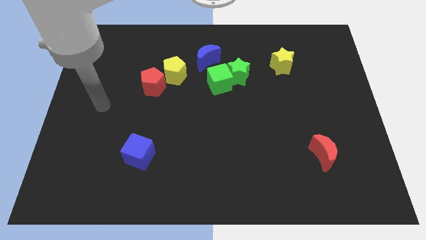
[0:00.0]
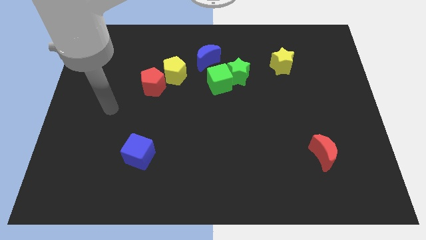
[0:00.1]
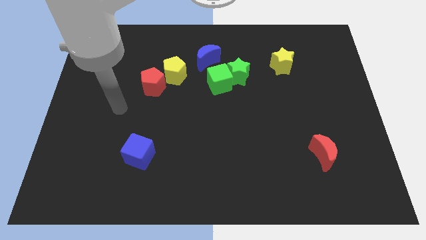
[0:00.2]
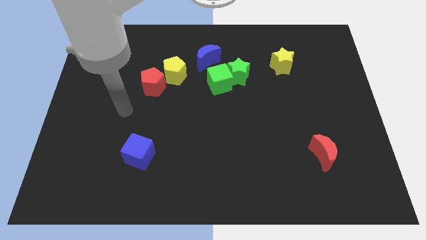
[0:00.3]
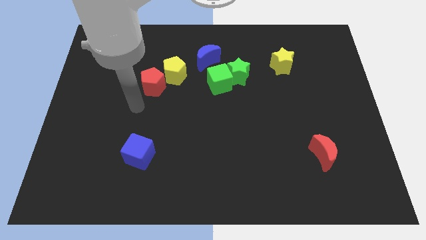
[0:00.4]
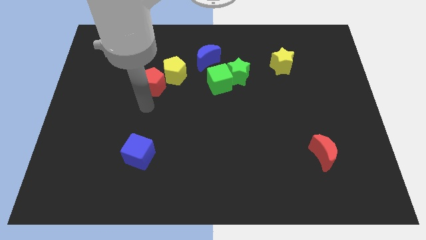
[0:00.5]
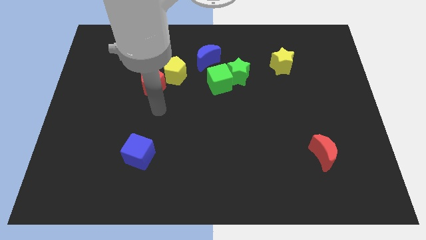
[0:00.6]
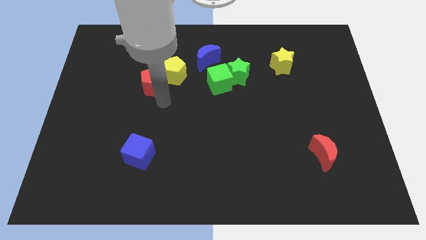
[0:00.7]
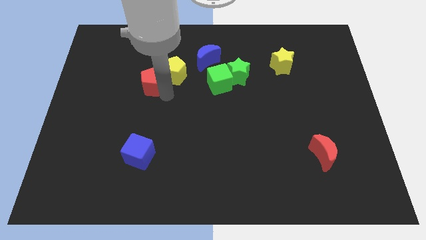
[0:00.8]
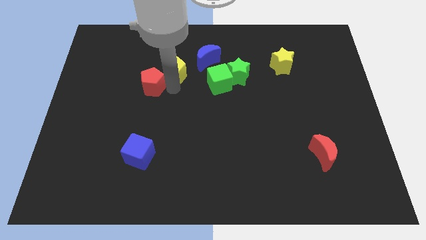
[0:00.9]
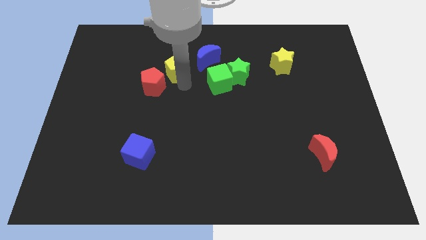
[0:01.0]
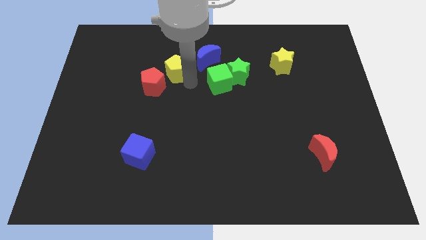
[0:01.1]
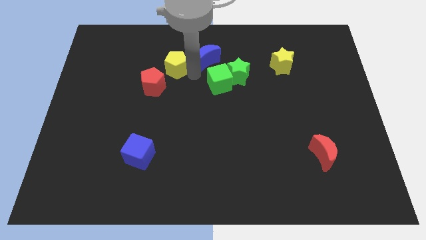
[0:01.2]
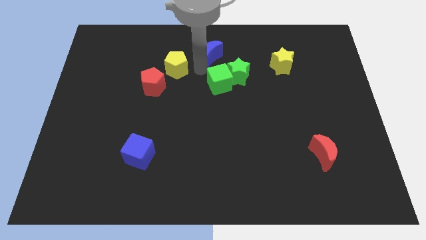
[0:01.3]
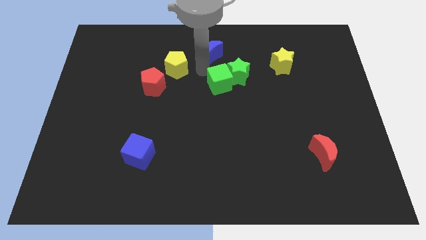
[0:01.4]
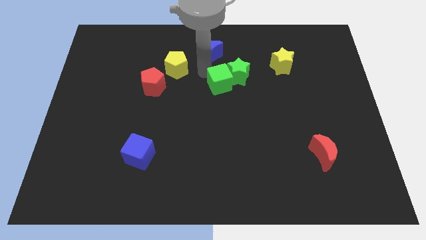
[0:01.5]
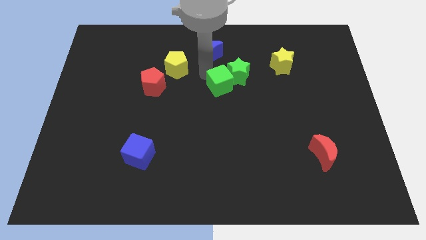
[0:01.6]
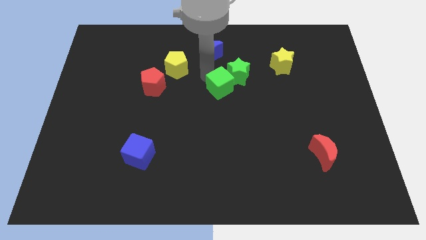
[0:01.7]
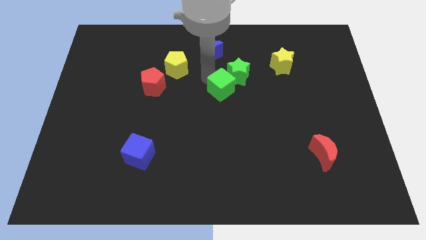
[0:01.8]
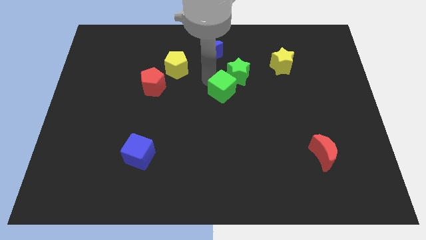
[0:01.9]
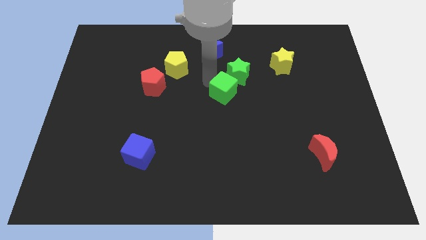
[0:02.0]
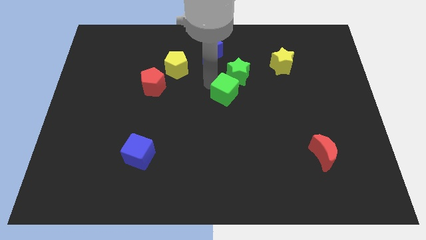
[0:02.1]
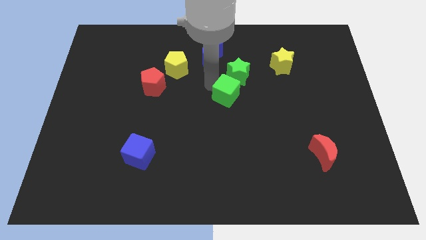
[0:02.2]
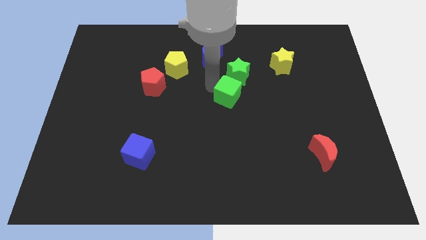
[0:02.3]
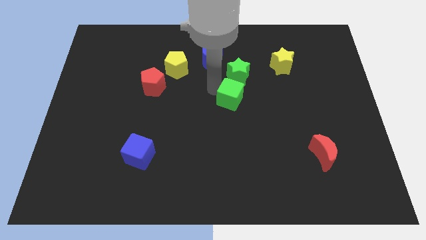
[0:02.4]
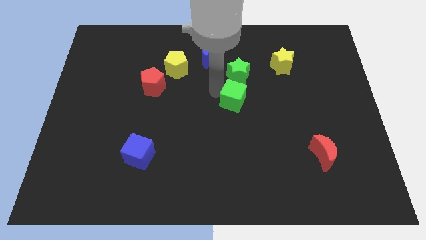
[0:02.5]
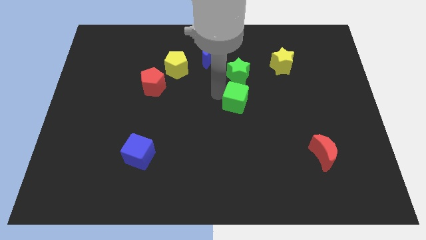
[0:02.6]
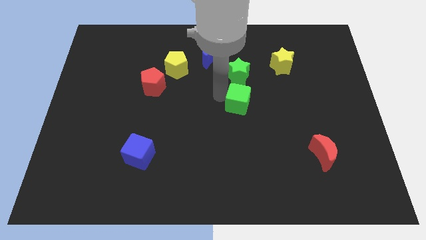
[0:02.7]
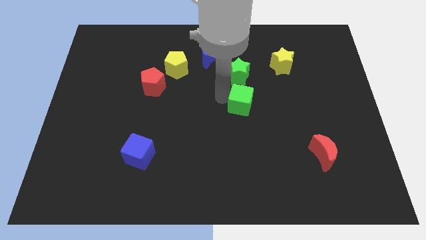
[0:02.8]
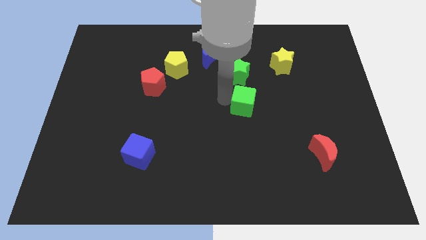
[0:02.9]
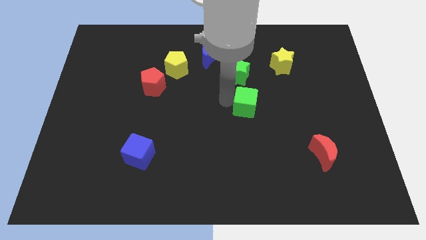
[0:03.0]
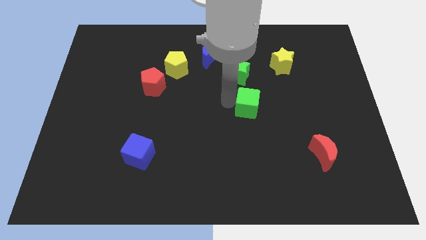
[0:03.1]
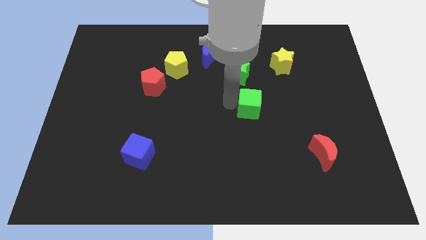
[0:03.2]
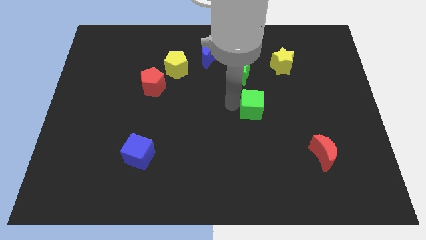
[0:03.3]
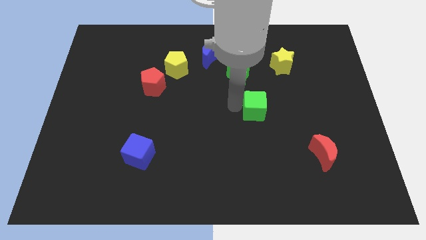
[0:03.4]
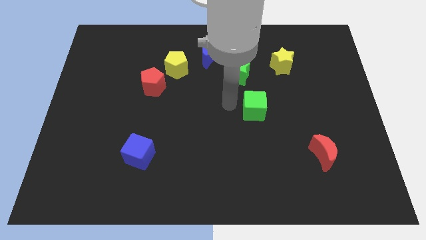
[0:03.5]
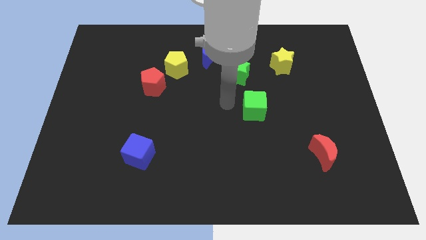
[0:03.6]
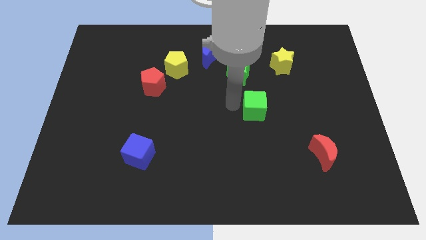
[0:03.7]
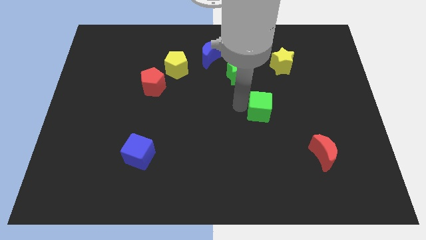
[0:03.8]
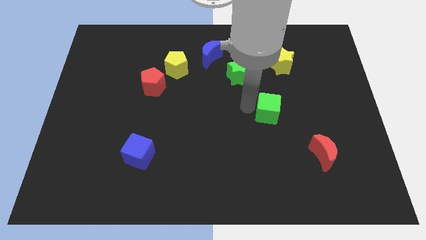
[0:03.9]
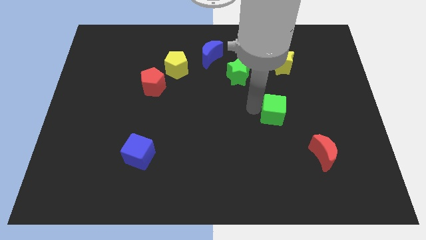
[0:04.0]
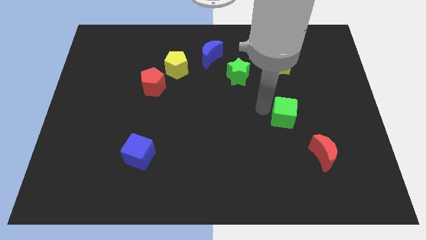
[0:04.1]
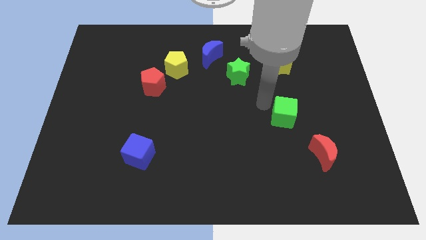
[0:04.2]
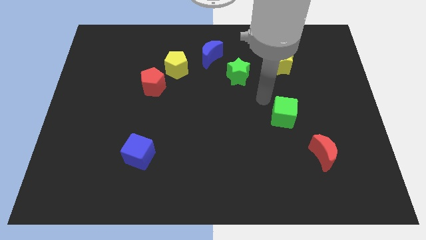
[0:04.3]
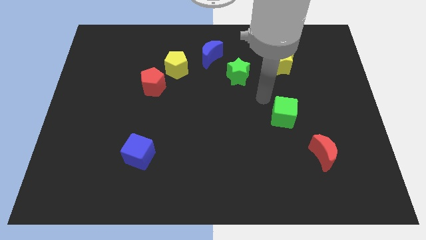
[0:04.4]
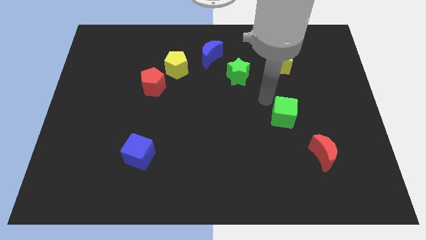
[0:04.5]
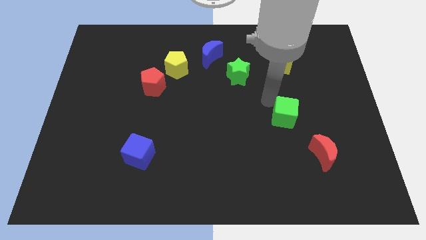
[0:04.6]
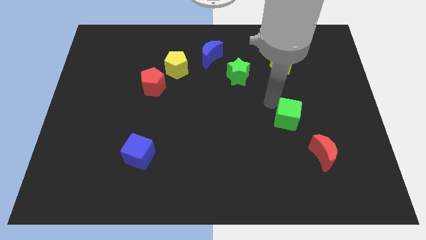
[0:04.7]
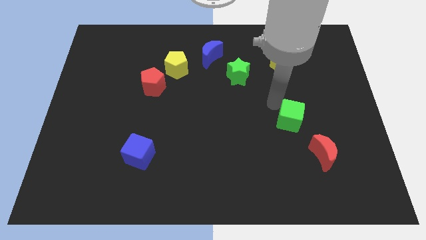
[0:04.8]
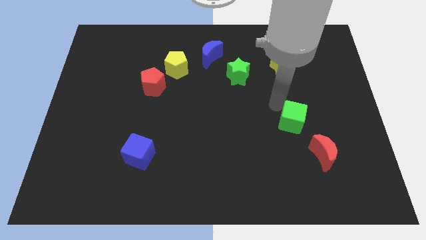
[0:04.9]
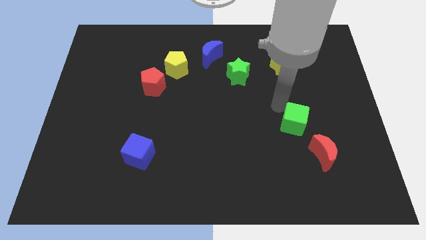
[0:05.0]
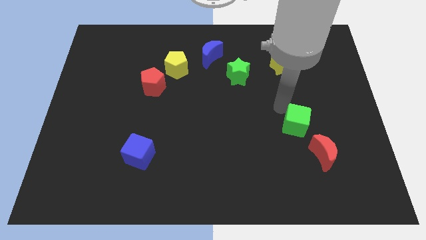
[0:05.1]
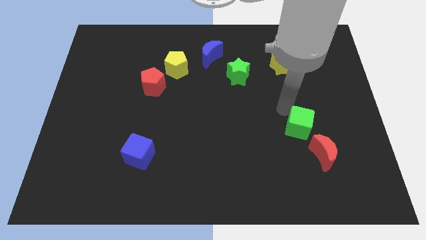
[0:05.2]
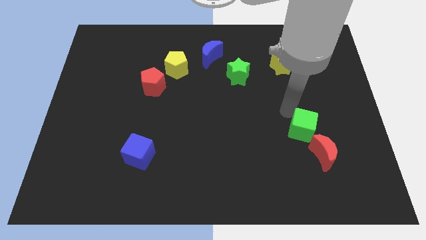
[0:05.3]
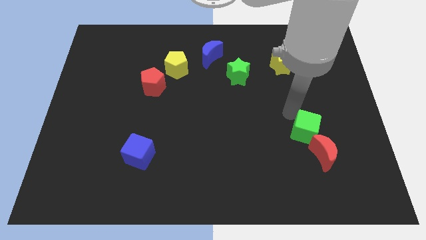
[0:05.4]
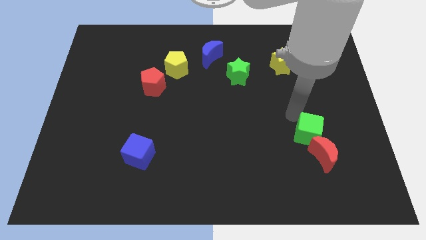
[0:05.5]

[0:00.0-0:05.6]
slide the green cube towards the red moon

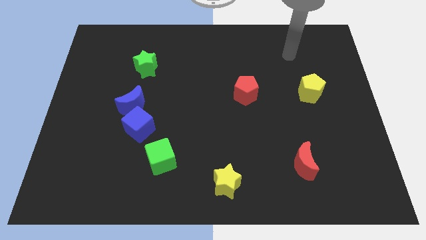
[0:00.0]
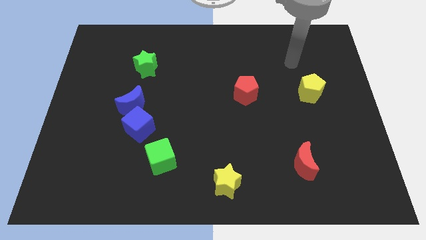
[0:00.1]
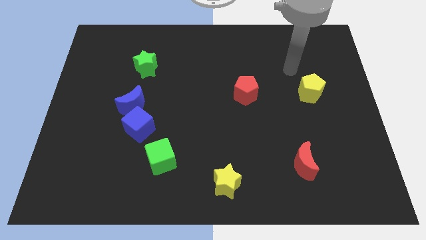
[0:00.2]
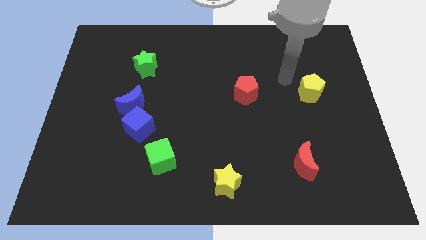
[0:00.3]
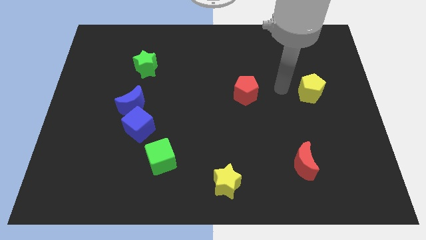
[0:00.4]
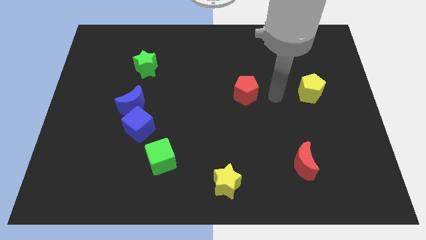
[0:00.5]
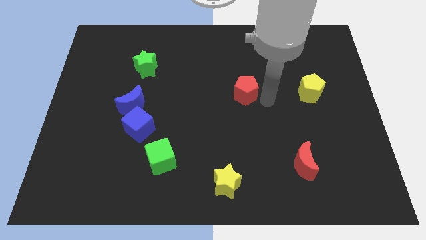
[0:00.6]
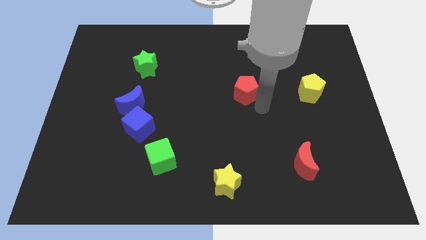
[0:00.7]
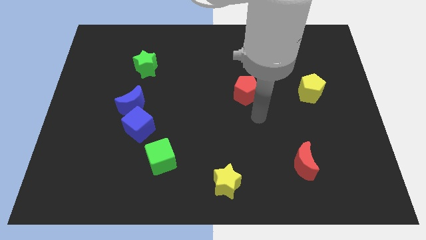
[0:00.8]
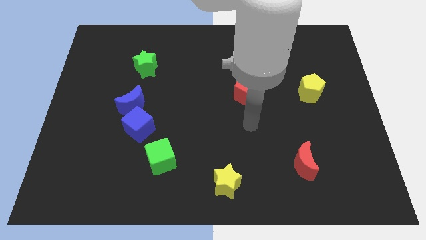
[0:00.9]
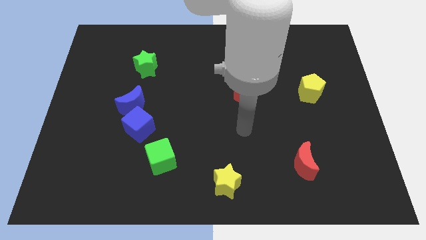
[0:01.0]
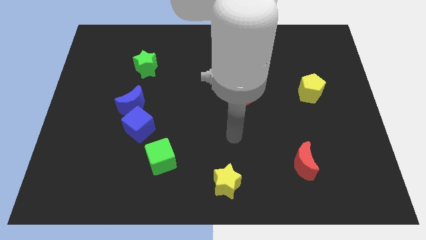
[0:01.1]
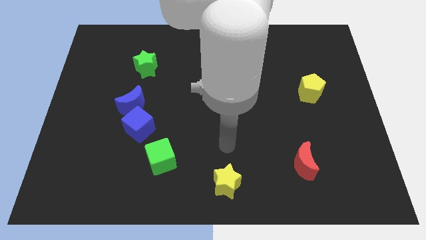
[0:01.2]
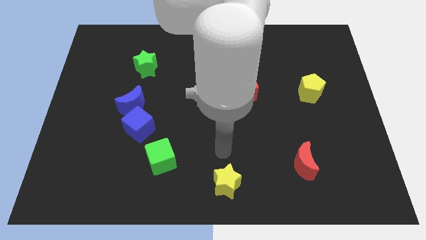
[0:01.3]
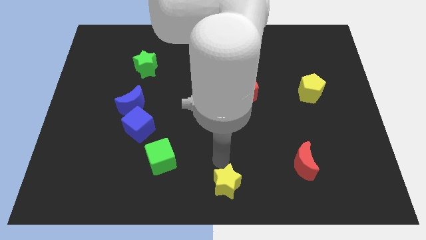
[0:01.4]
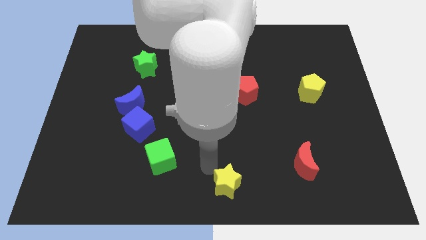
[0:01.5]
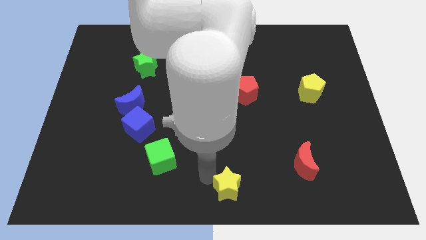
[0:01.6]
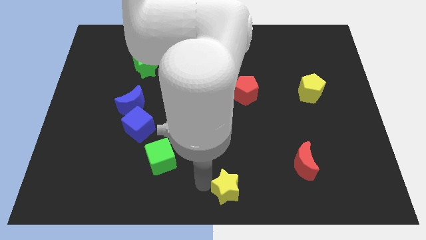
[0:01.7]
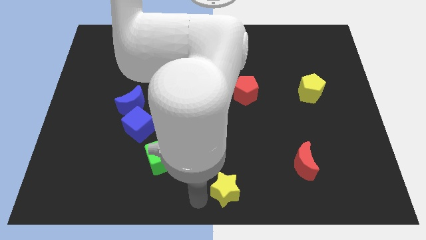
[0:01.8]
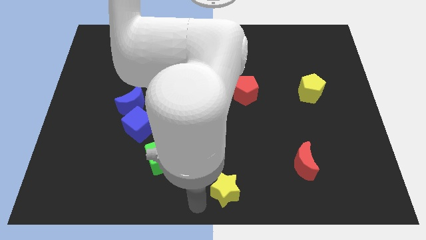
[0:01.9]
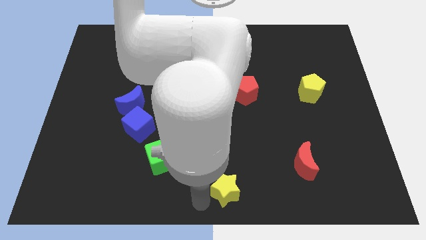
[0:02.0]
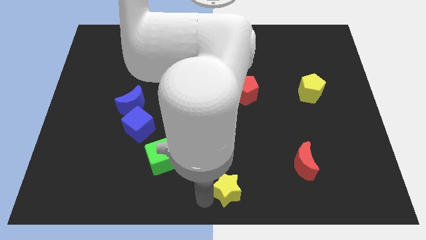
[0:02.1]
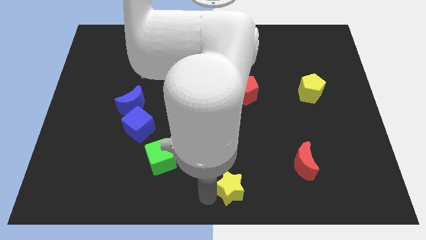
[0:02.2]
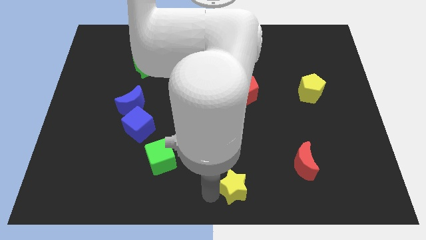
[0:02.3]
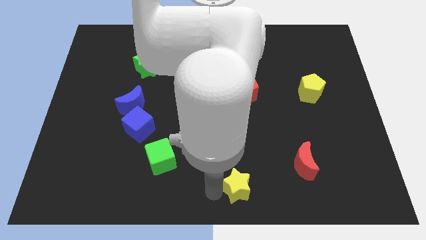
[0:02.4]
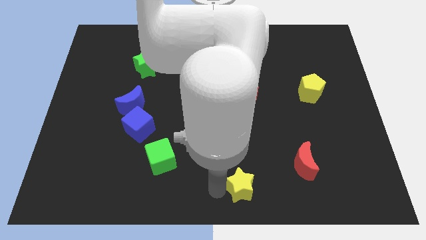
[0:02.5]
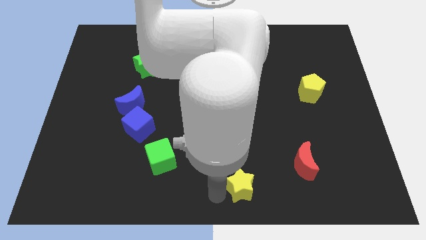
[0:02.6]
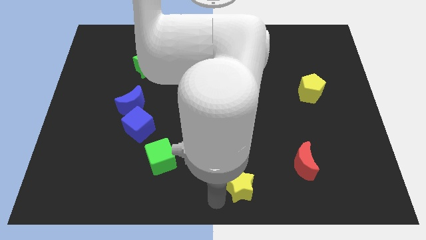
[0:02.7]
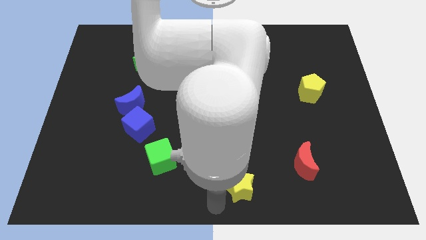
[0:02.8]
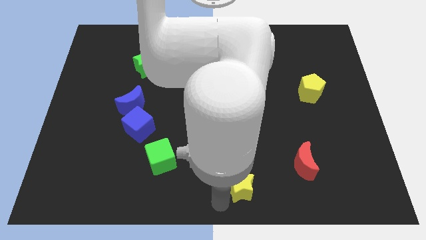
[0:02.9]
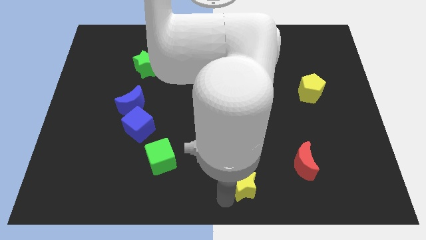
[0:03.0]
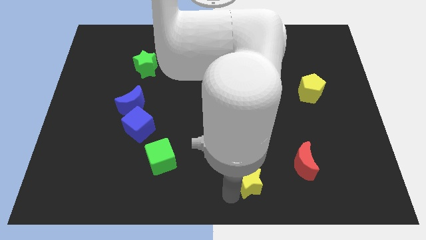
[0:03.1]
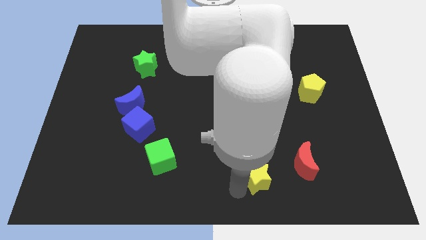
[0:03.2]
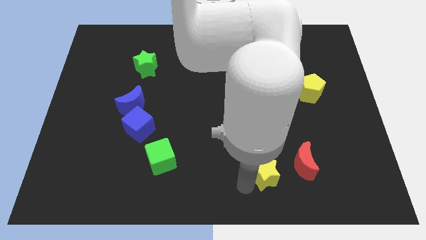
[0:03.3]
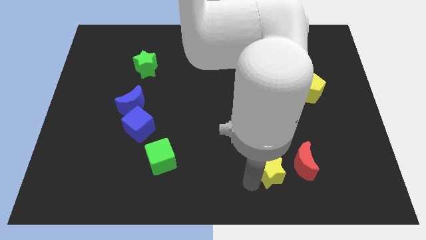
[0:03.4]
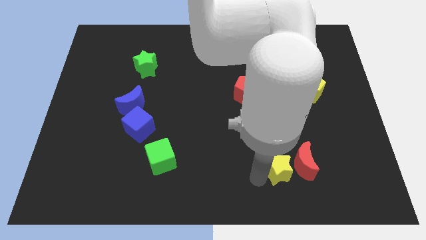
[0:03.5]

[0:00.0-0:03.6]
slide the yellow star to the red moon
